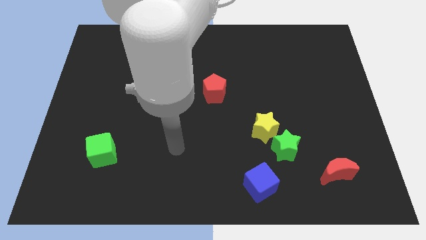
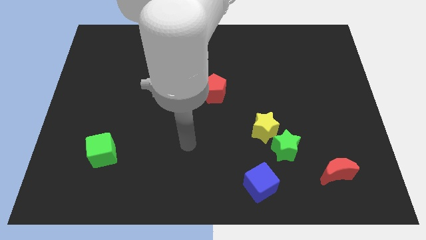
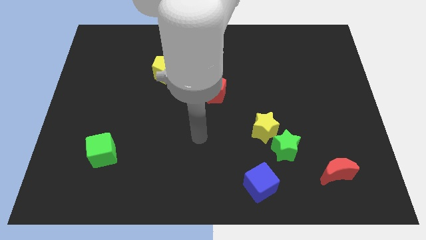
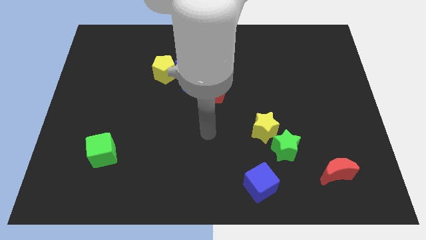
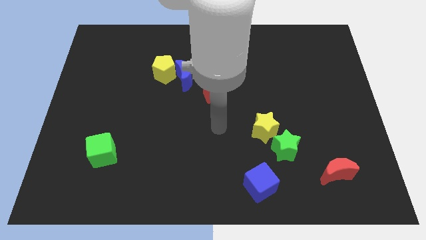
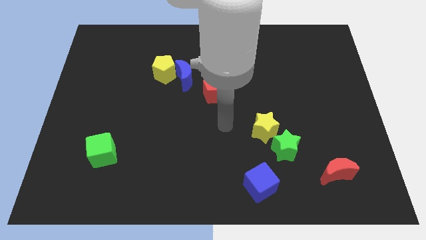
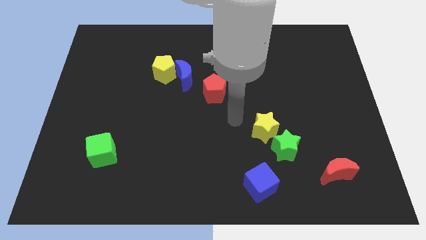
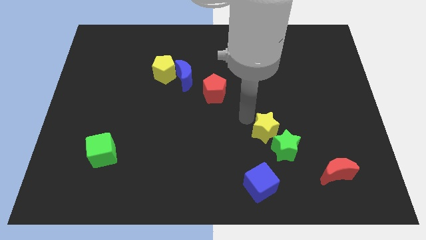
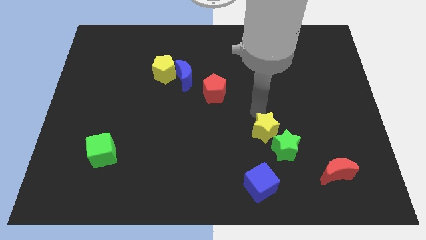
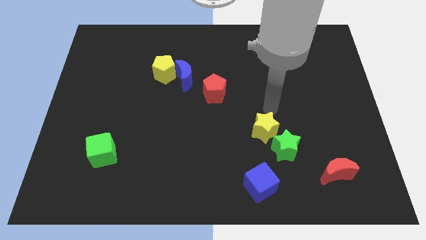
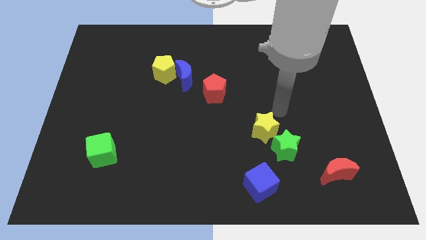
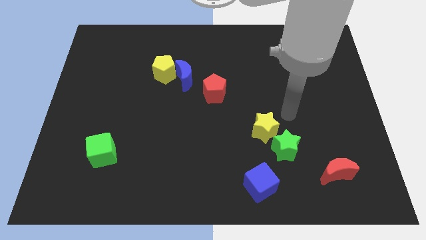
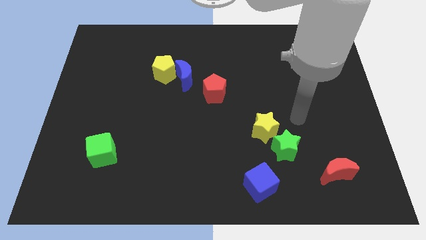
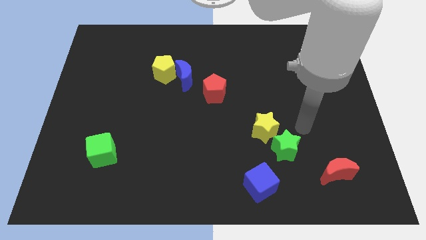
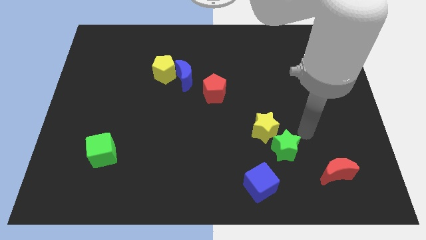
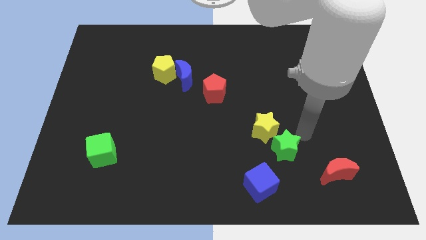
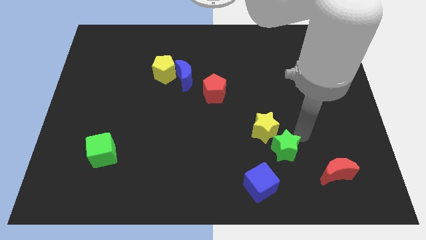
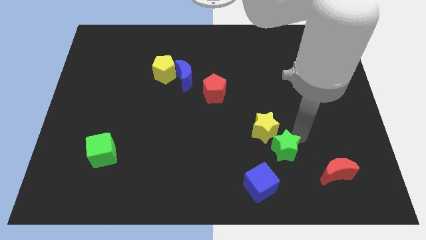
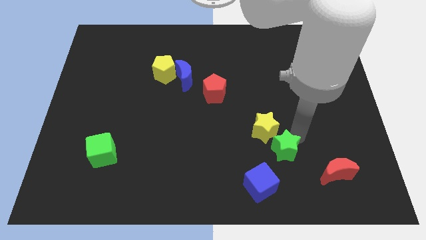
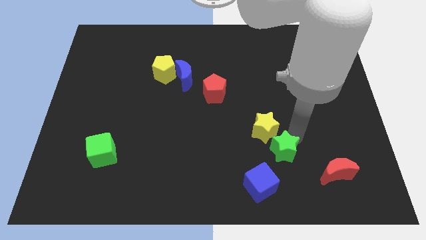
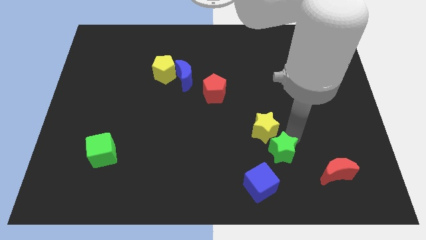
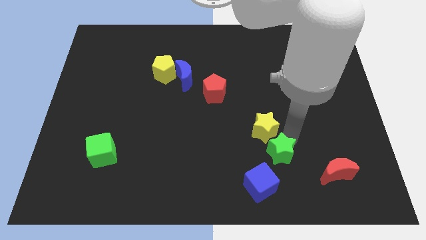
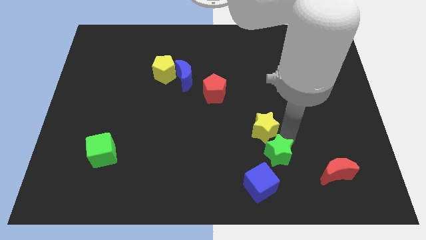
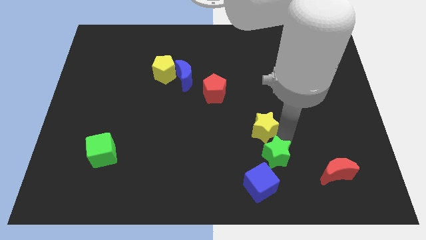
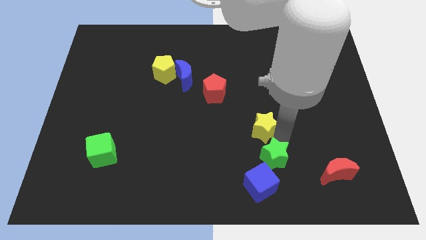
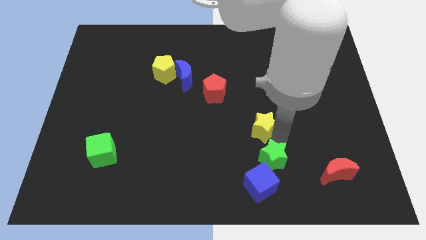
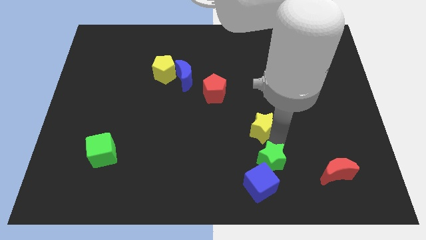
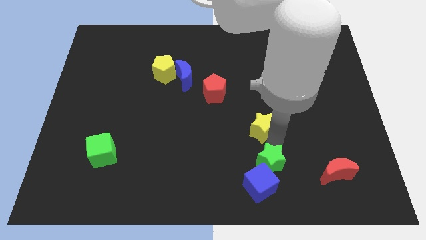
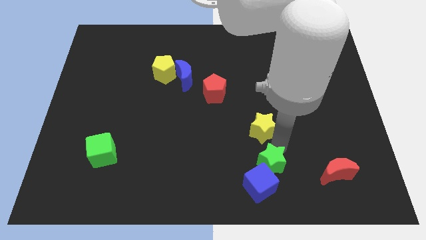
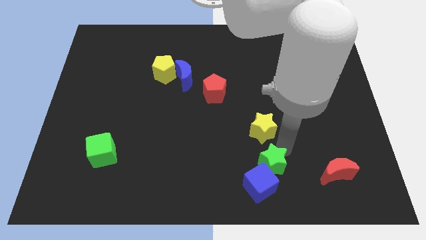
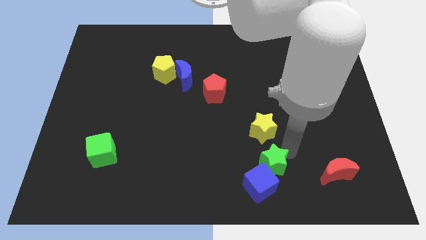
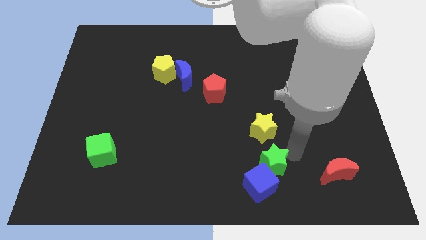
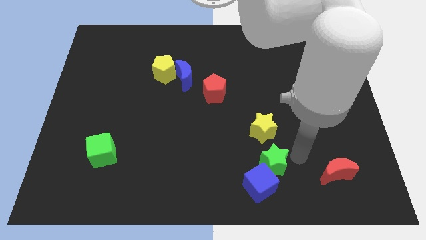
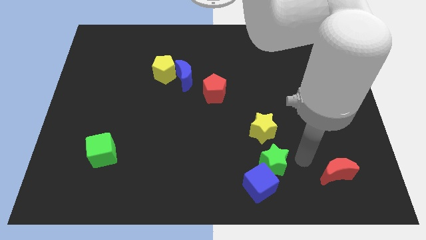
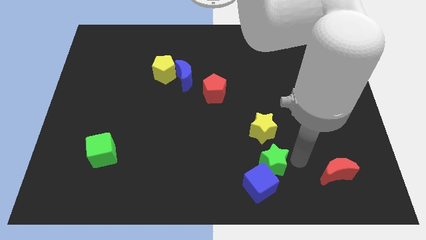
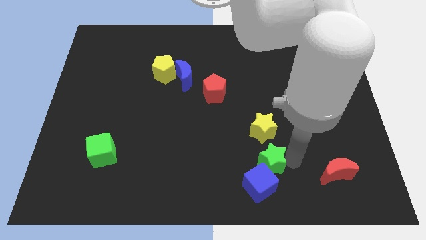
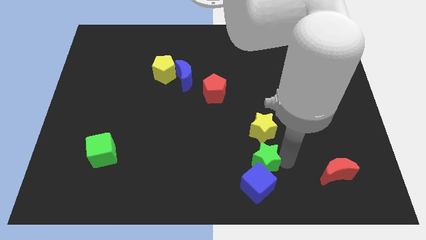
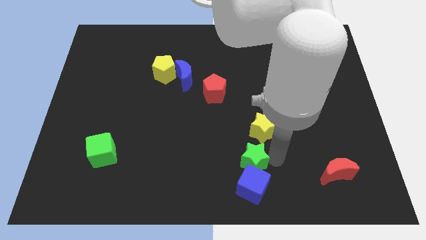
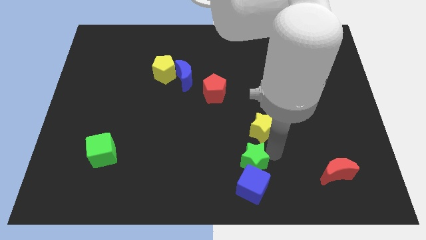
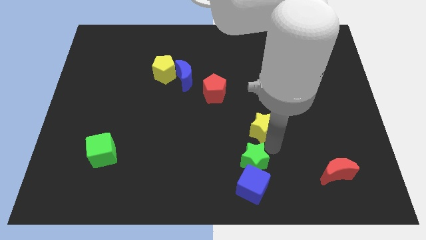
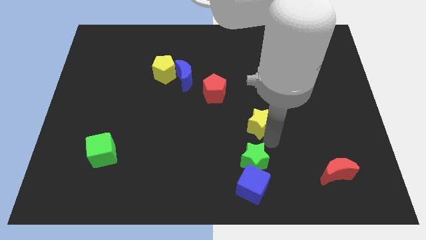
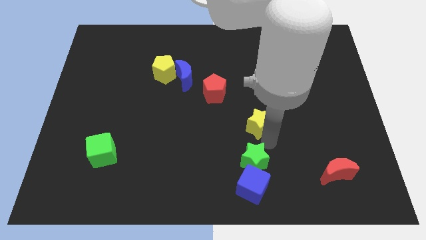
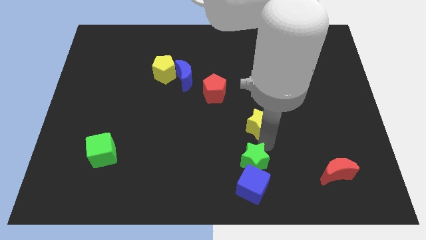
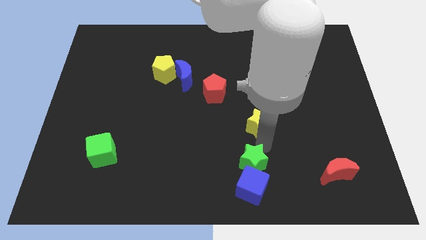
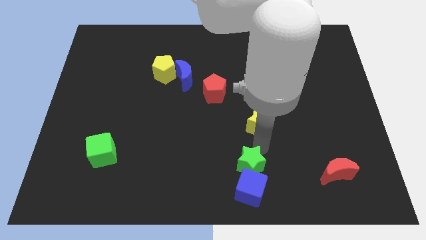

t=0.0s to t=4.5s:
slide the green star to the bottom

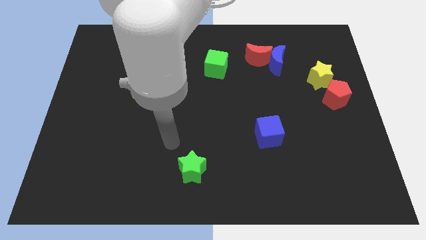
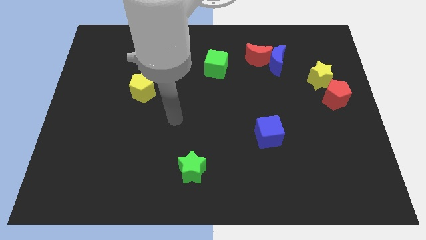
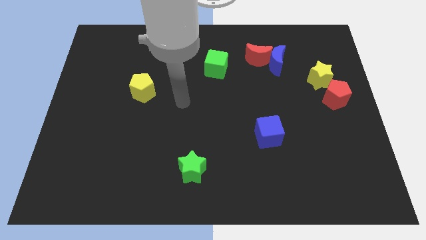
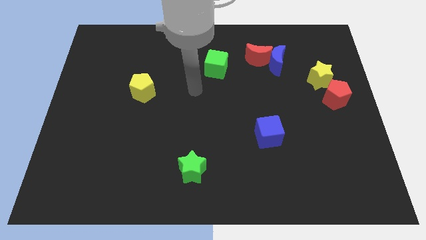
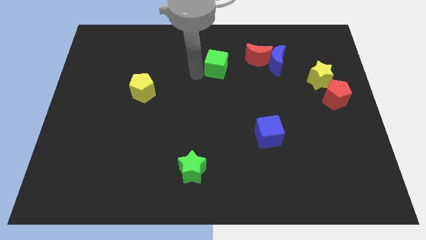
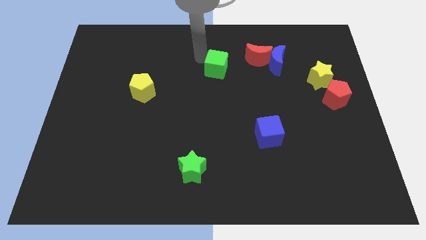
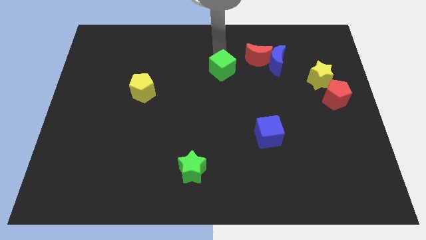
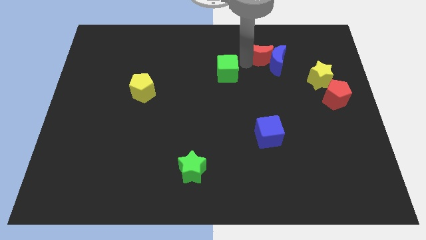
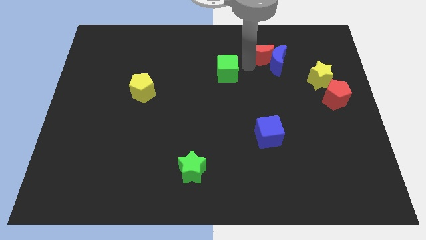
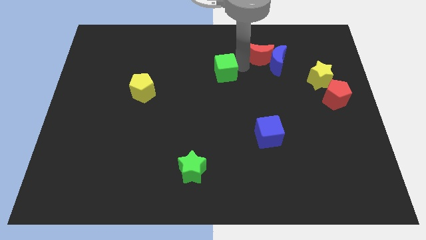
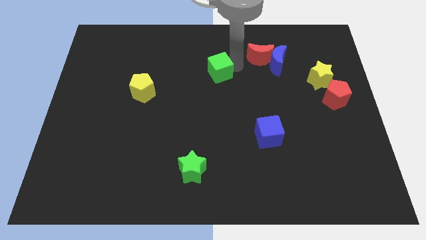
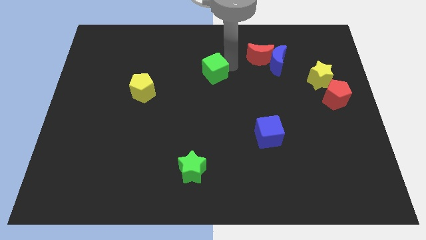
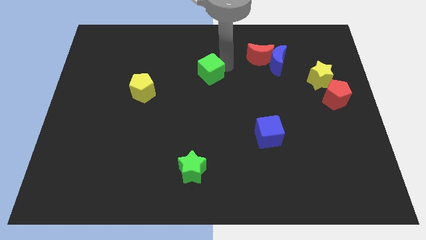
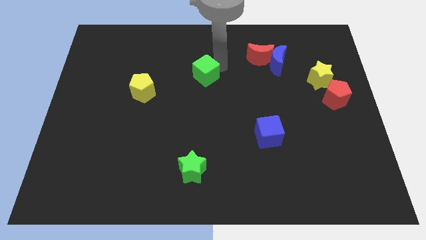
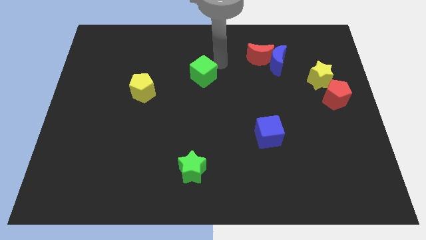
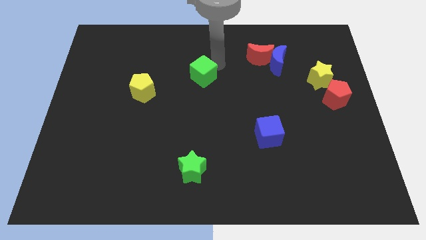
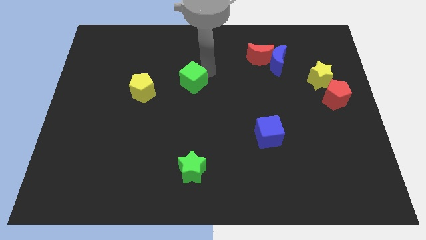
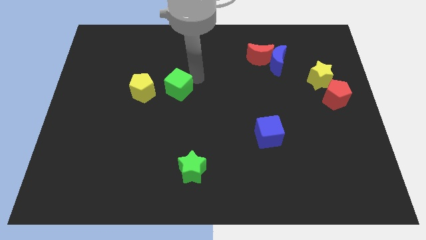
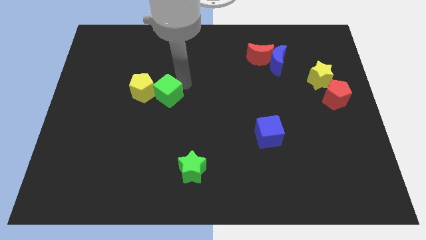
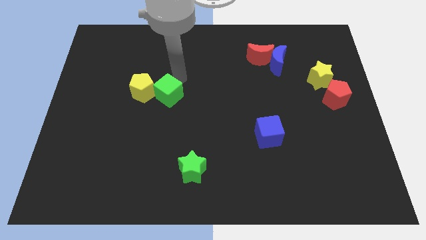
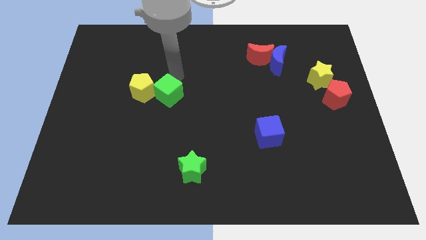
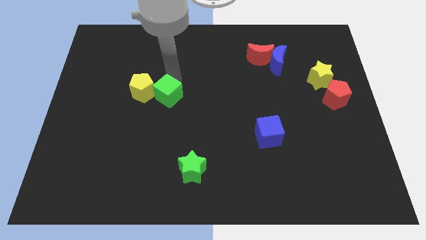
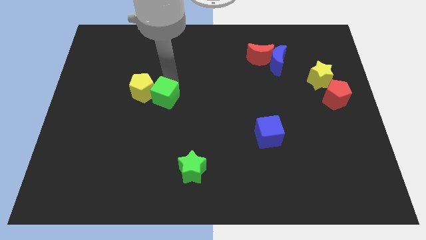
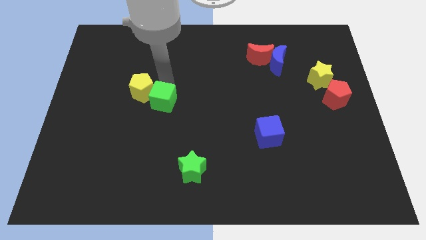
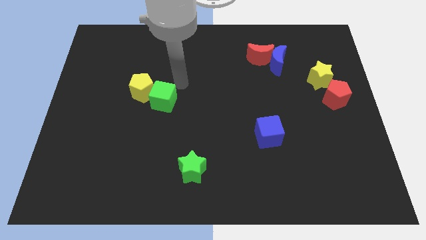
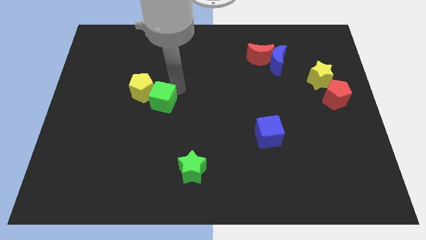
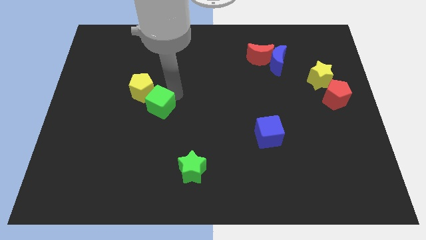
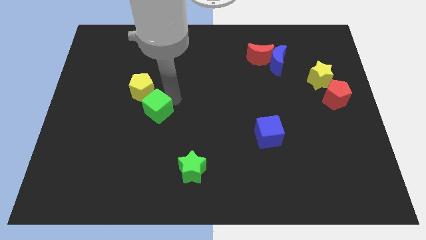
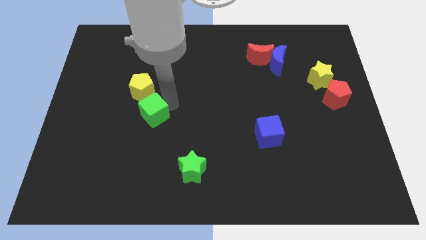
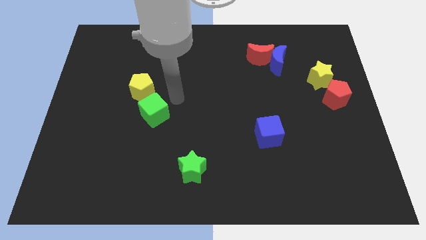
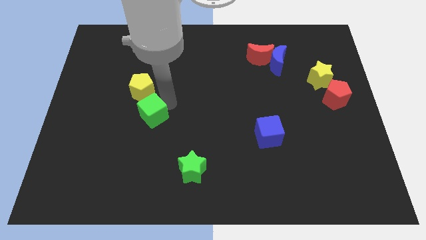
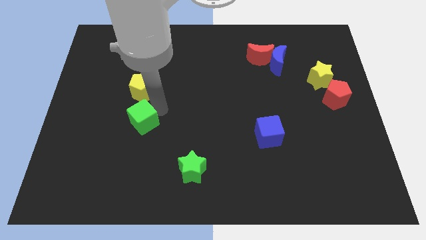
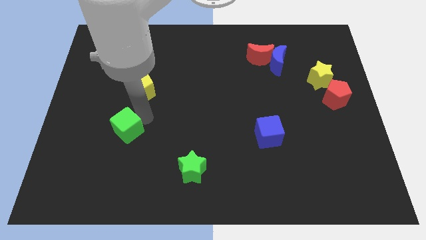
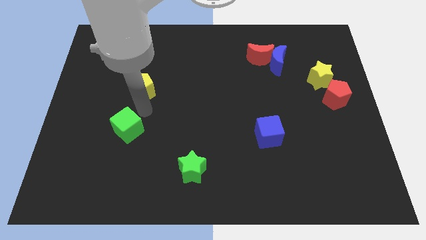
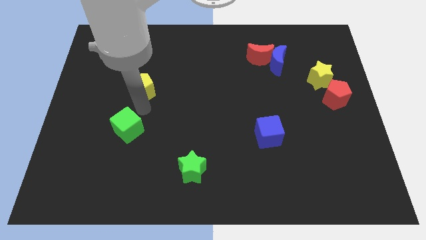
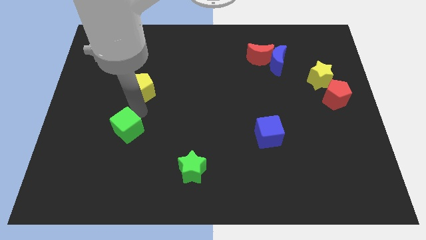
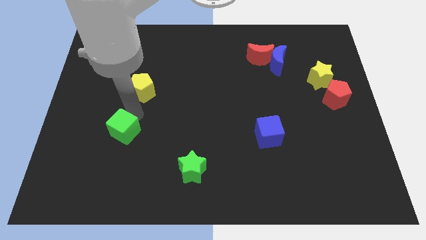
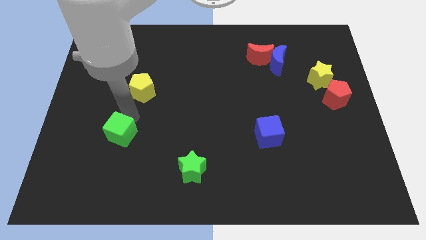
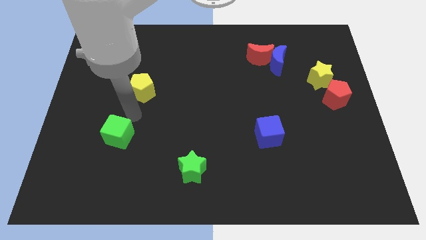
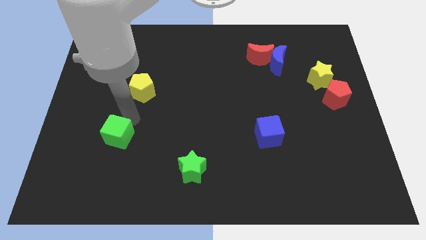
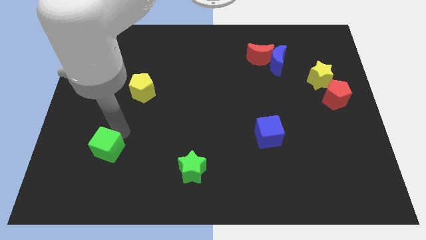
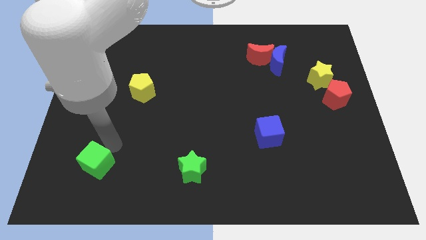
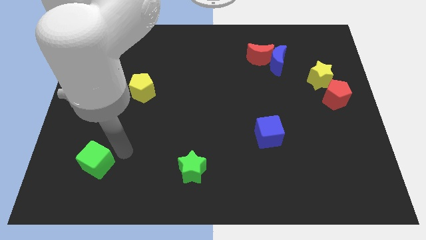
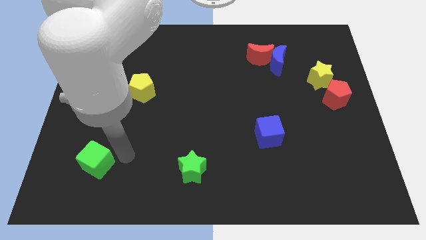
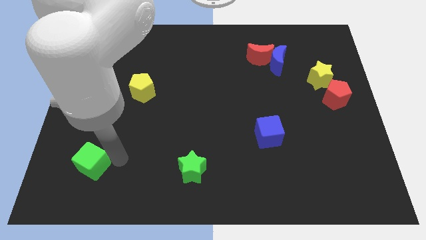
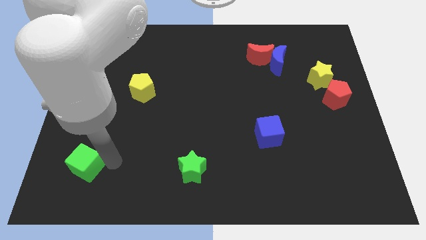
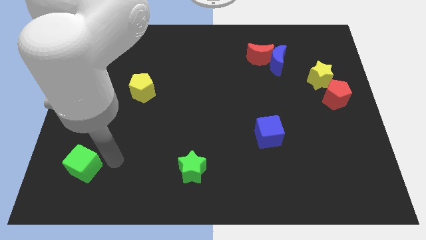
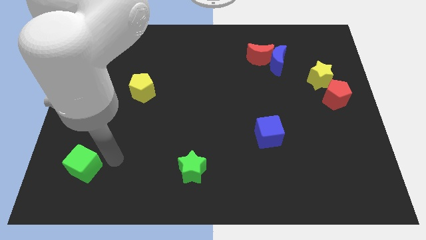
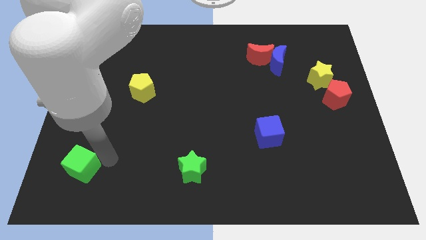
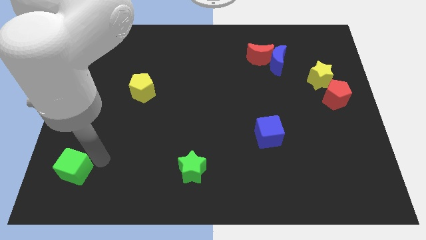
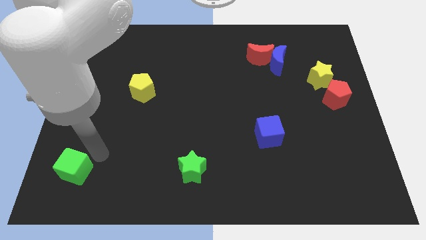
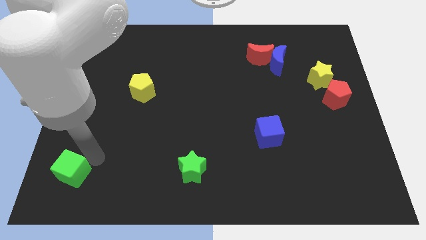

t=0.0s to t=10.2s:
put the green cube to the bottom left corner
